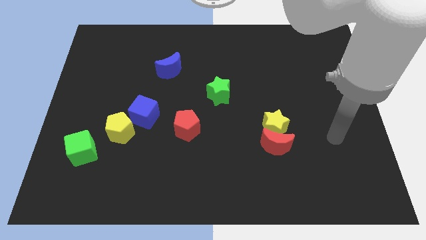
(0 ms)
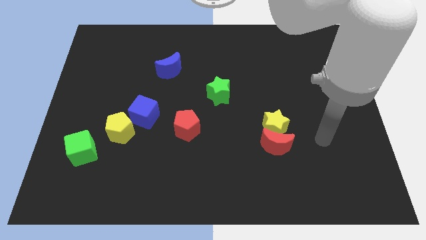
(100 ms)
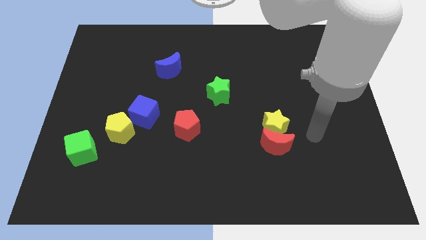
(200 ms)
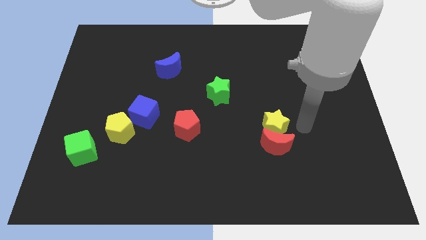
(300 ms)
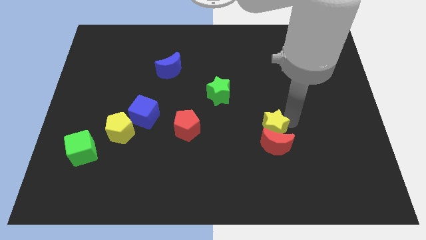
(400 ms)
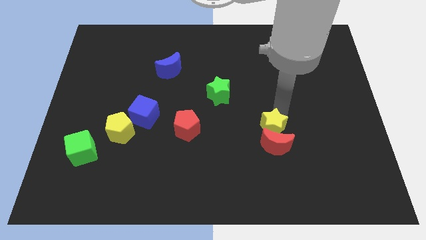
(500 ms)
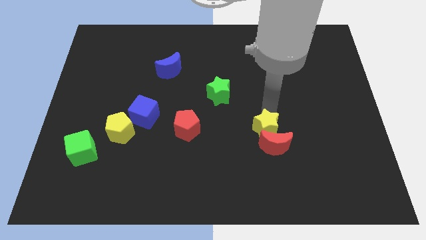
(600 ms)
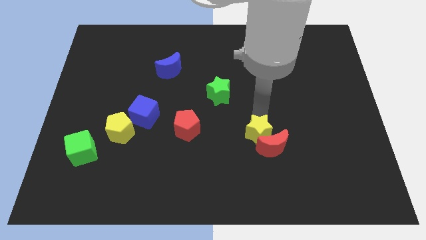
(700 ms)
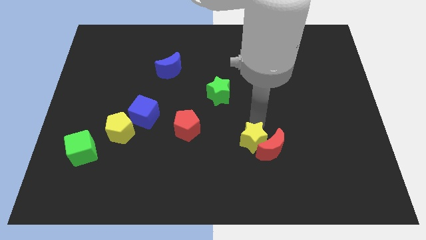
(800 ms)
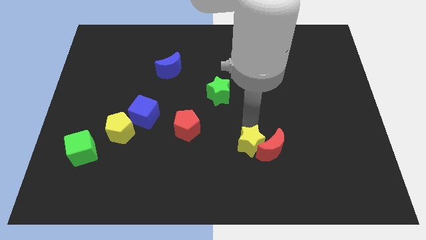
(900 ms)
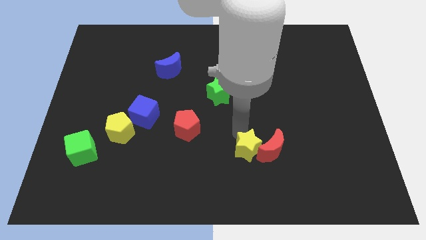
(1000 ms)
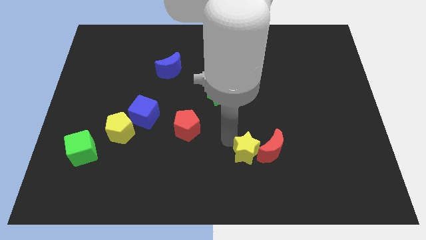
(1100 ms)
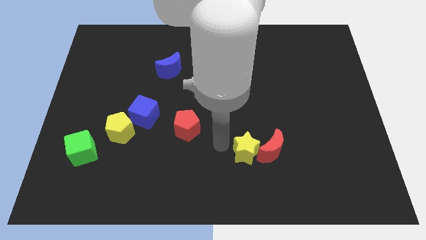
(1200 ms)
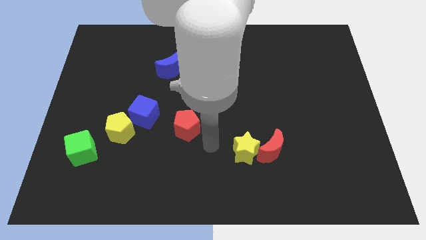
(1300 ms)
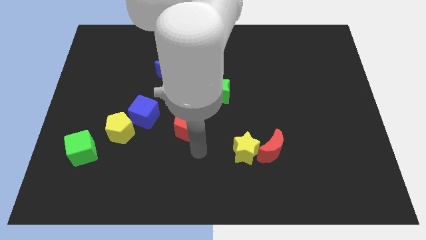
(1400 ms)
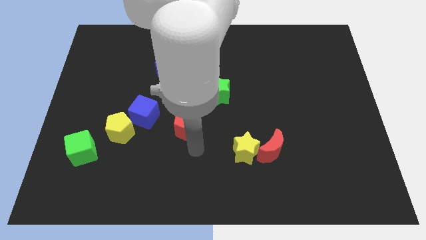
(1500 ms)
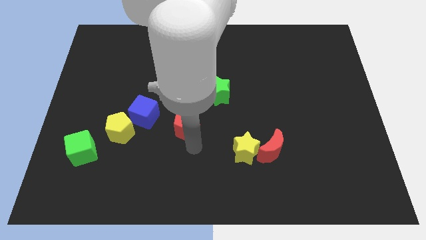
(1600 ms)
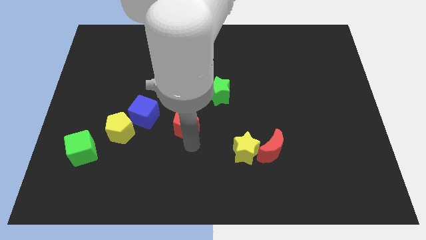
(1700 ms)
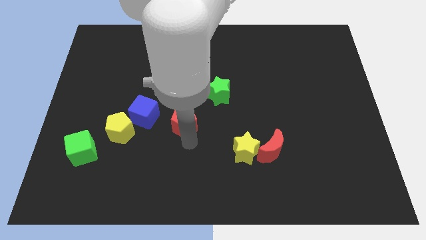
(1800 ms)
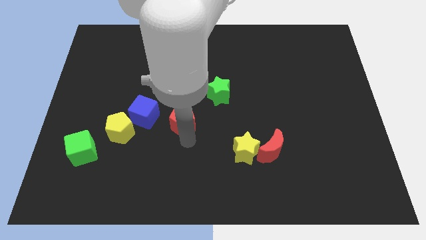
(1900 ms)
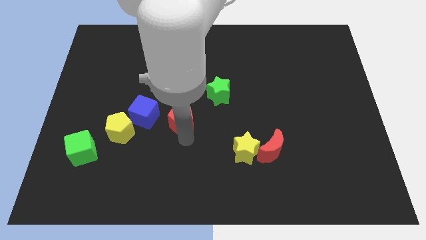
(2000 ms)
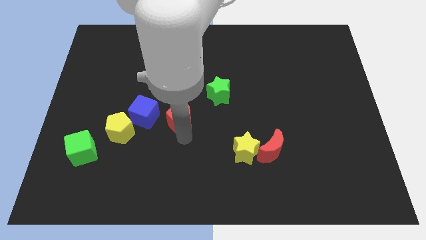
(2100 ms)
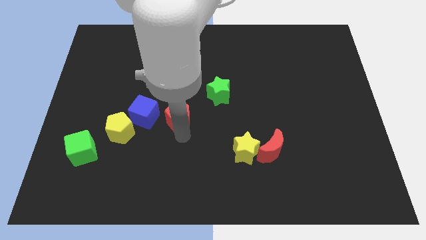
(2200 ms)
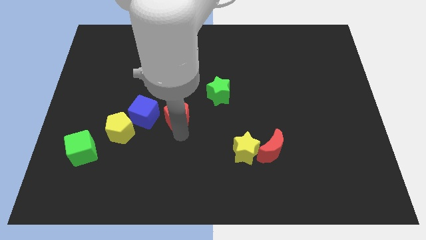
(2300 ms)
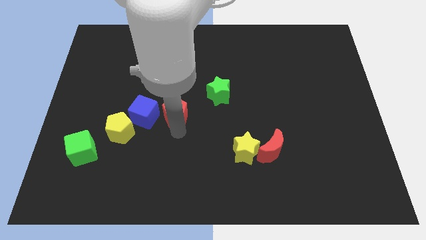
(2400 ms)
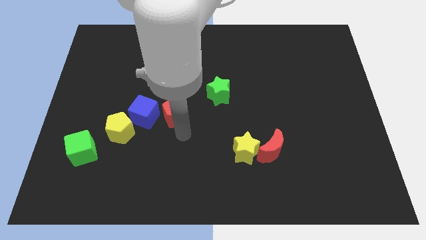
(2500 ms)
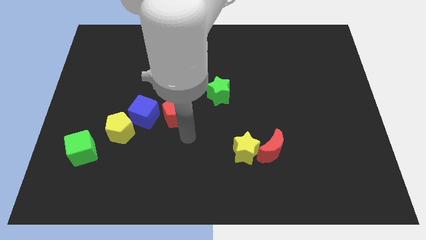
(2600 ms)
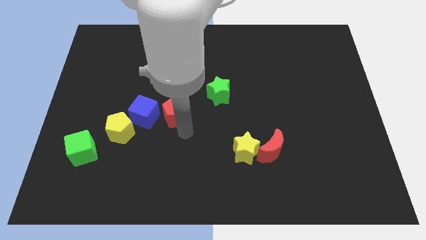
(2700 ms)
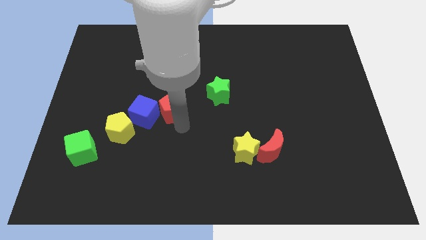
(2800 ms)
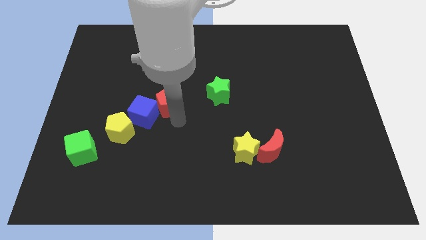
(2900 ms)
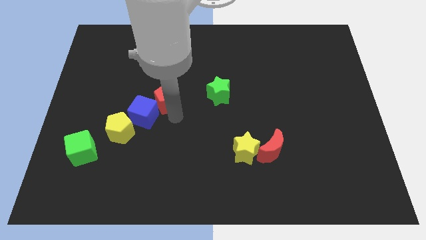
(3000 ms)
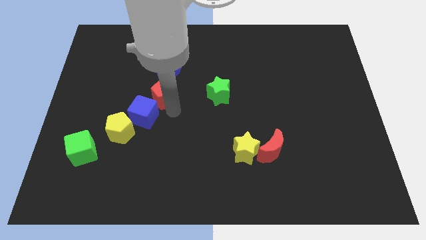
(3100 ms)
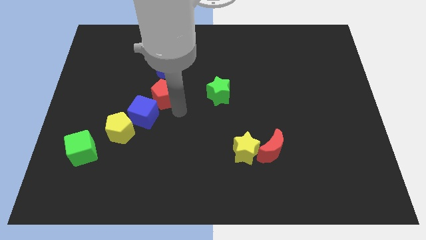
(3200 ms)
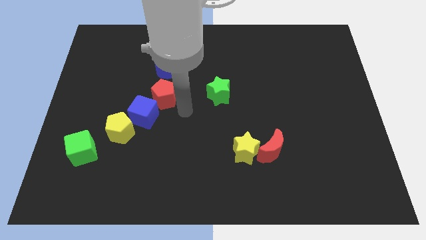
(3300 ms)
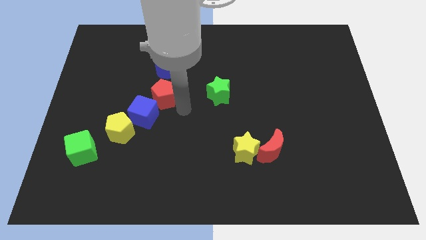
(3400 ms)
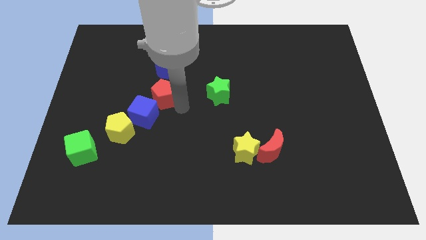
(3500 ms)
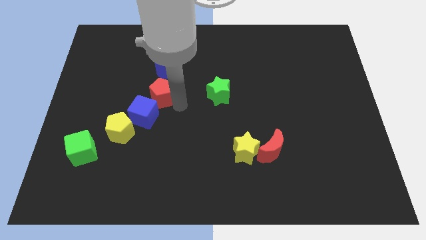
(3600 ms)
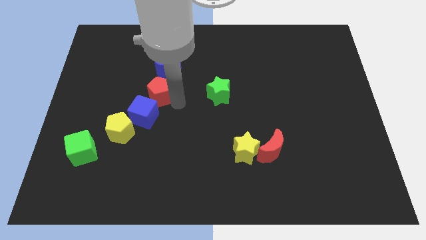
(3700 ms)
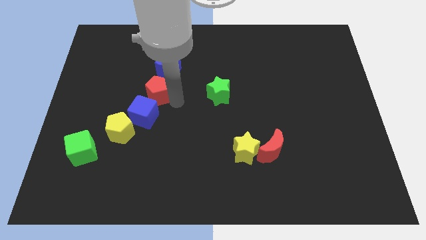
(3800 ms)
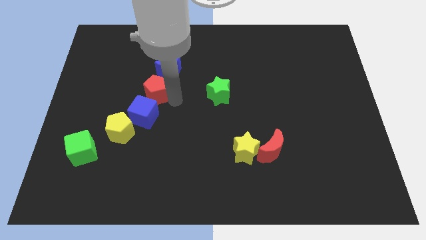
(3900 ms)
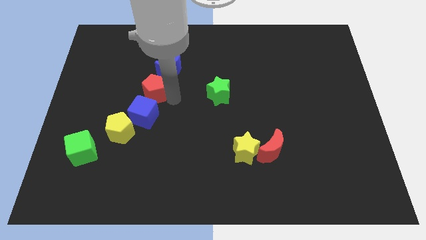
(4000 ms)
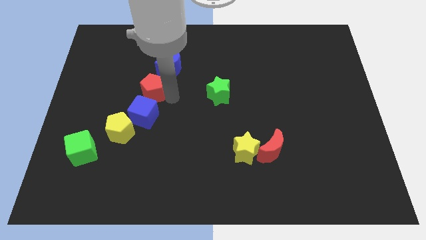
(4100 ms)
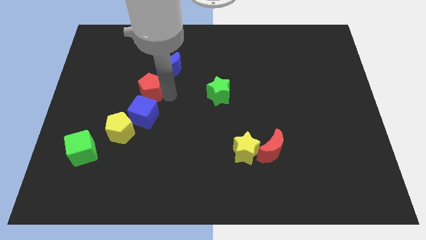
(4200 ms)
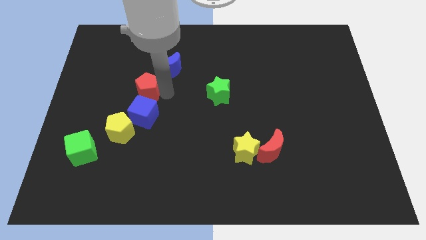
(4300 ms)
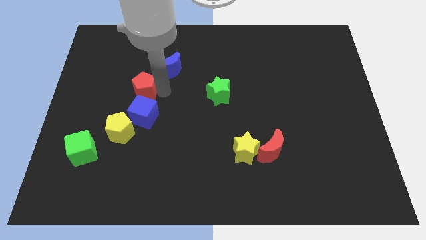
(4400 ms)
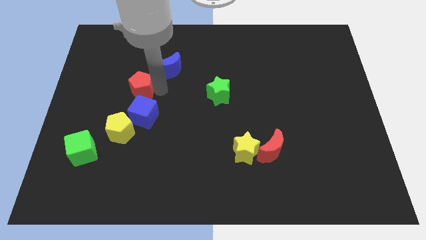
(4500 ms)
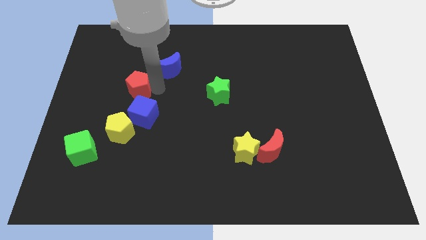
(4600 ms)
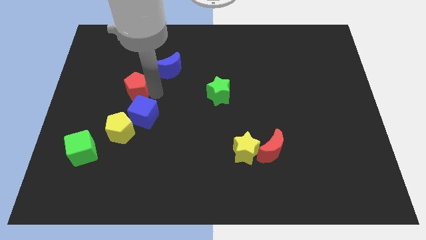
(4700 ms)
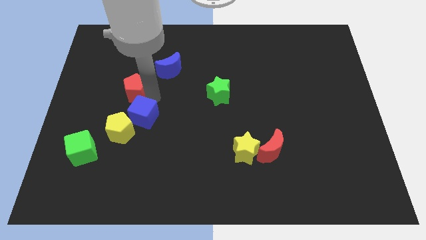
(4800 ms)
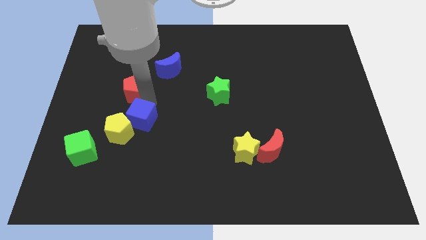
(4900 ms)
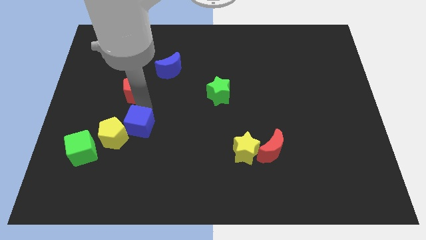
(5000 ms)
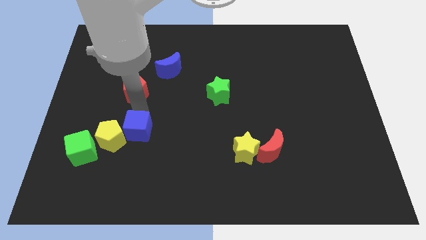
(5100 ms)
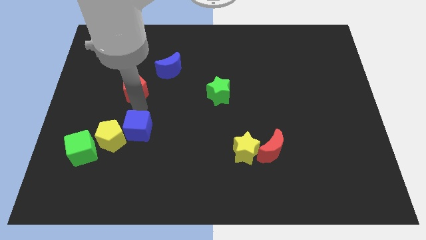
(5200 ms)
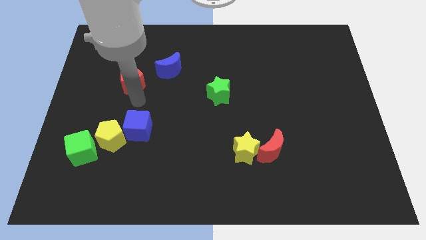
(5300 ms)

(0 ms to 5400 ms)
move the red pentagon to the left side of the blue moon

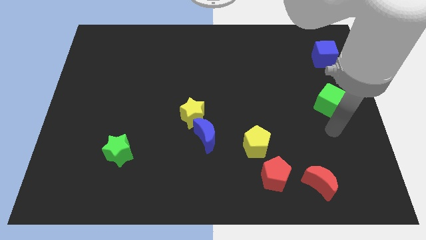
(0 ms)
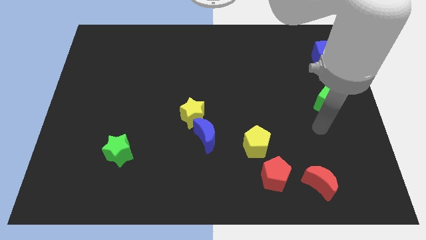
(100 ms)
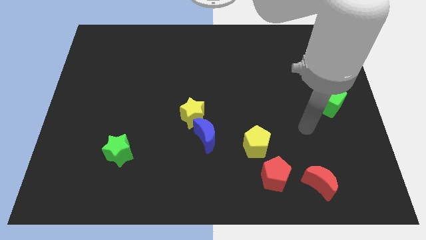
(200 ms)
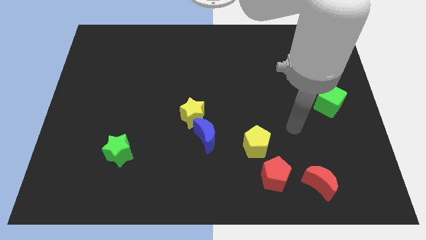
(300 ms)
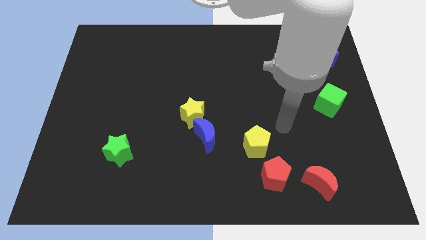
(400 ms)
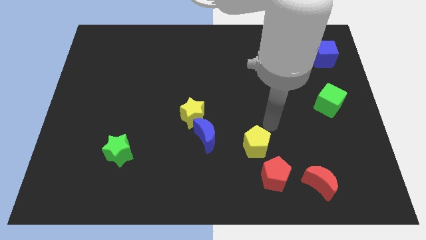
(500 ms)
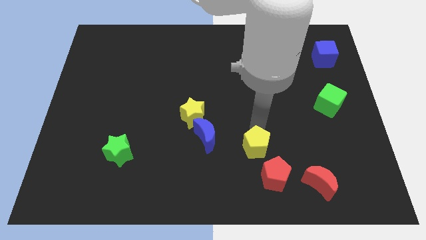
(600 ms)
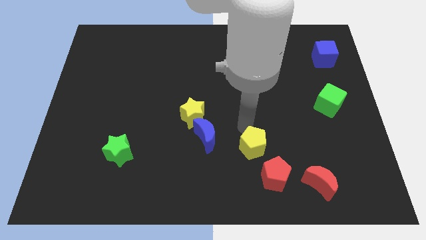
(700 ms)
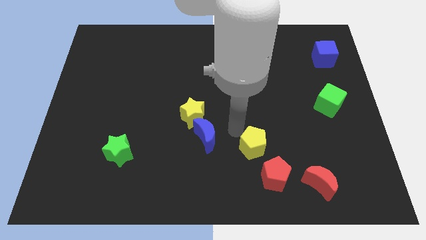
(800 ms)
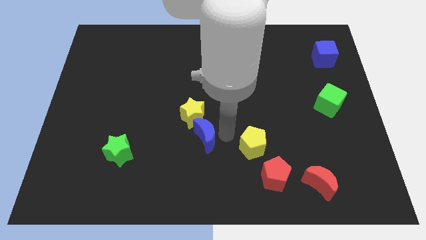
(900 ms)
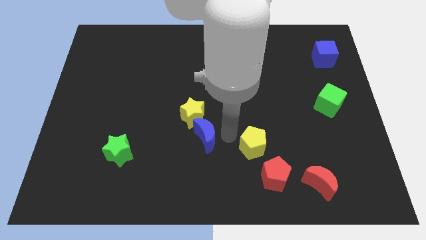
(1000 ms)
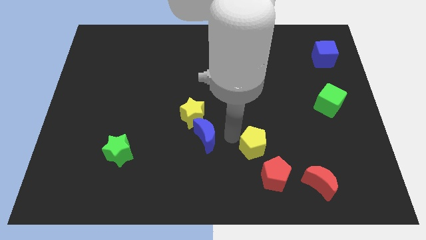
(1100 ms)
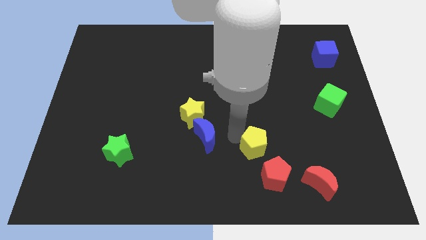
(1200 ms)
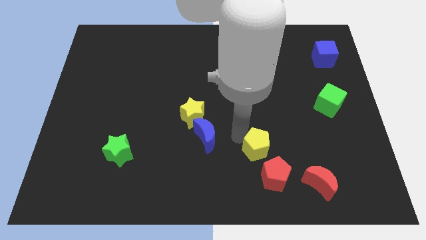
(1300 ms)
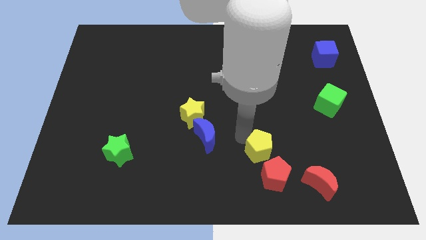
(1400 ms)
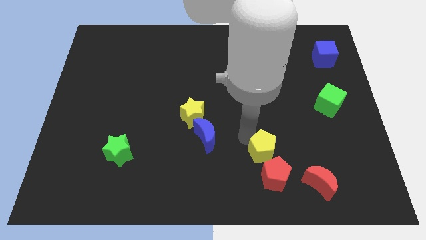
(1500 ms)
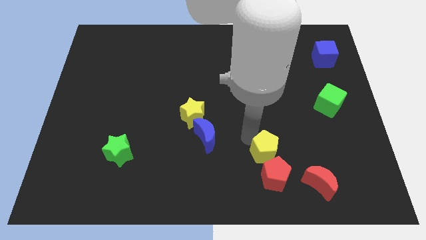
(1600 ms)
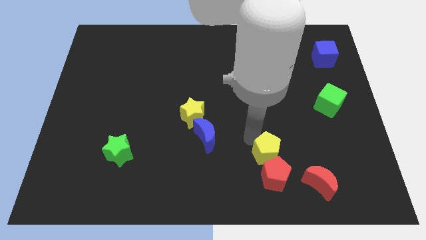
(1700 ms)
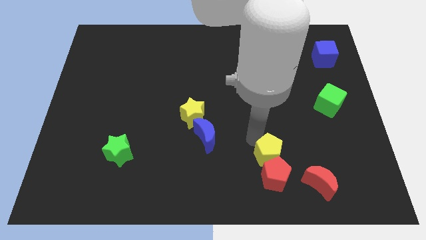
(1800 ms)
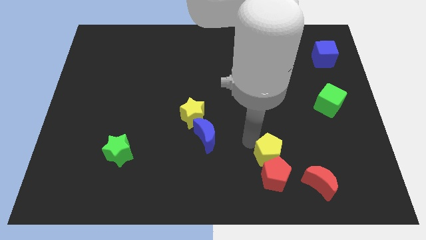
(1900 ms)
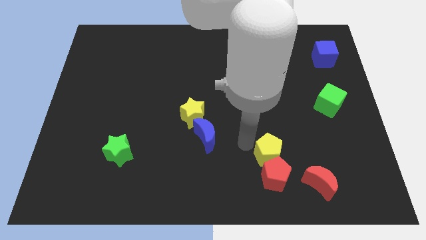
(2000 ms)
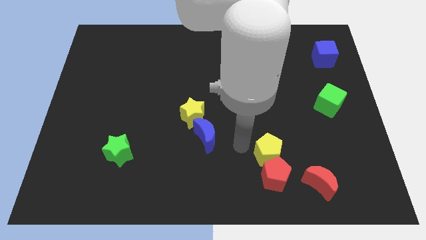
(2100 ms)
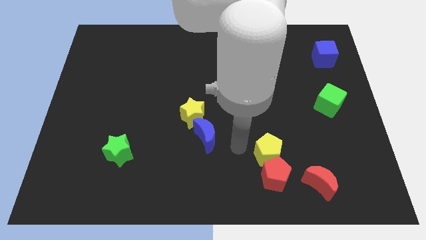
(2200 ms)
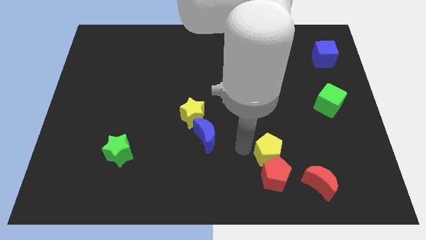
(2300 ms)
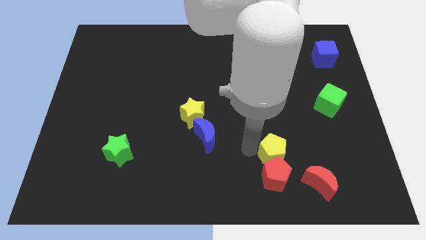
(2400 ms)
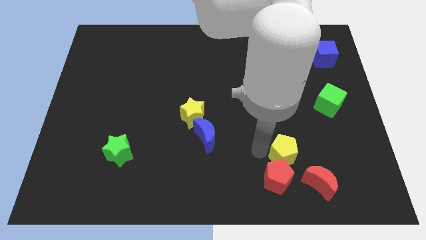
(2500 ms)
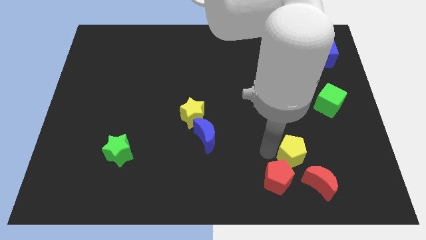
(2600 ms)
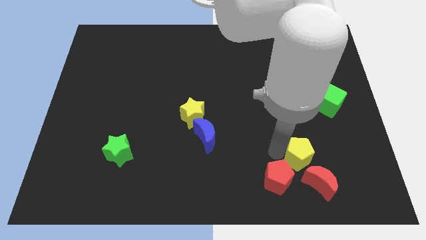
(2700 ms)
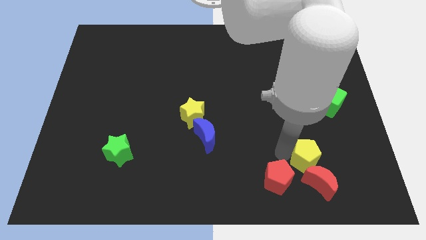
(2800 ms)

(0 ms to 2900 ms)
push the yellow pentagon just right of the red pentagon
